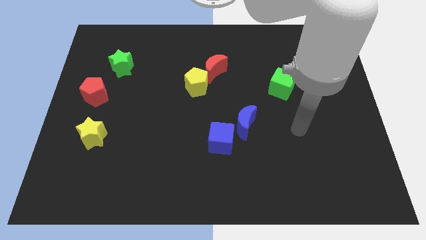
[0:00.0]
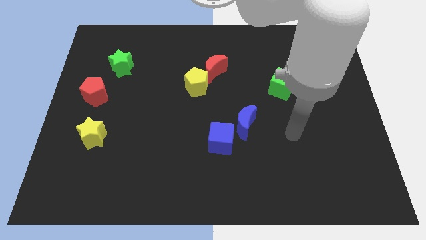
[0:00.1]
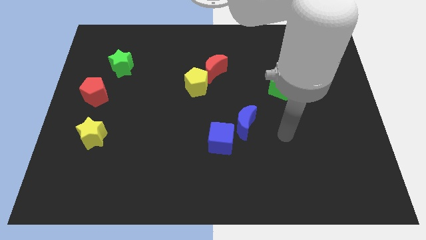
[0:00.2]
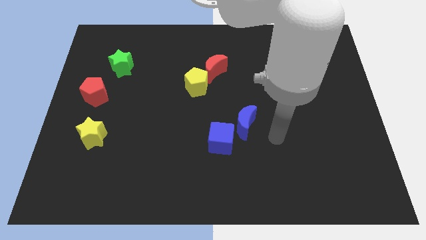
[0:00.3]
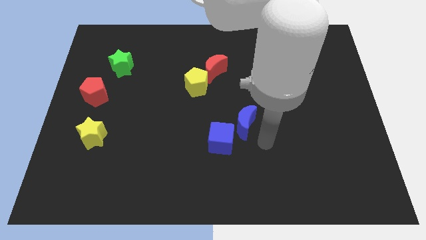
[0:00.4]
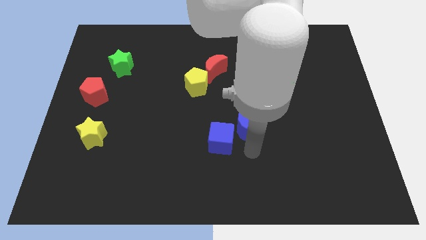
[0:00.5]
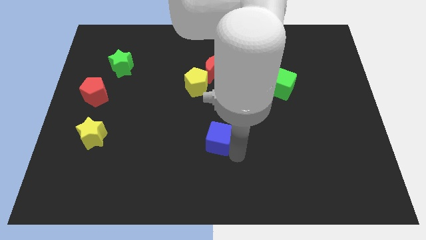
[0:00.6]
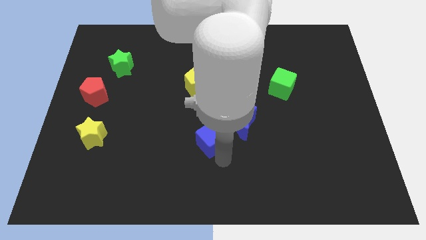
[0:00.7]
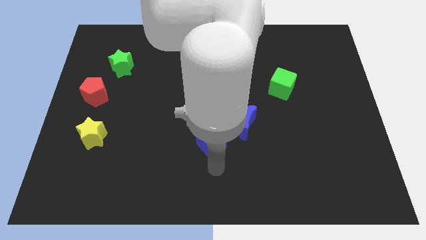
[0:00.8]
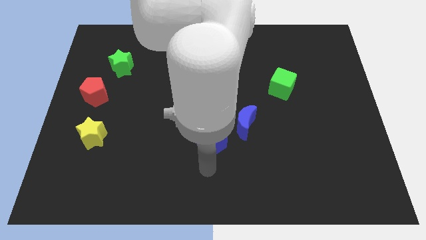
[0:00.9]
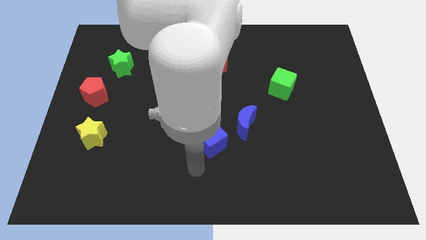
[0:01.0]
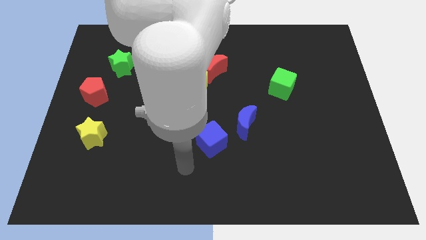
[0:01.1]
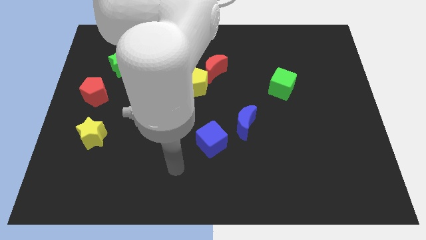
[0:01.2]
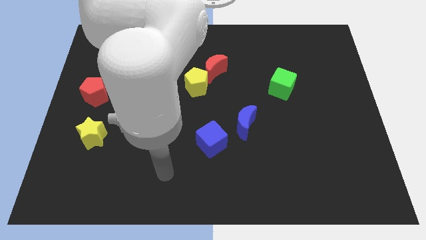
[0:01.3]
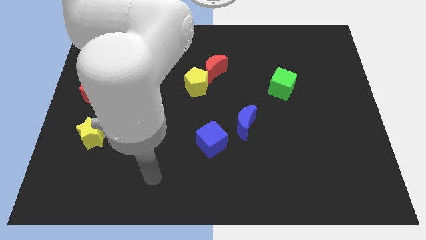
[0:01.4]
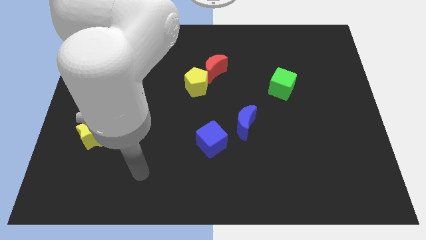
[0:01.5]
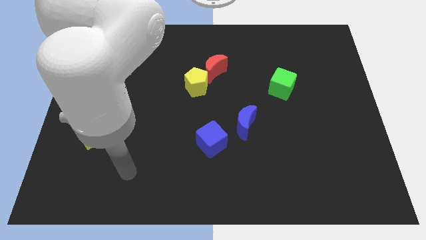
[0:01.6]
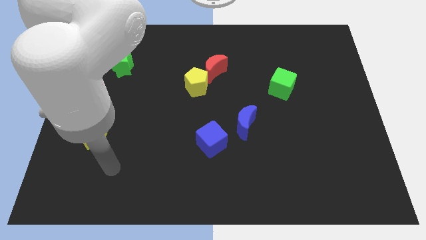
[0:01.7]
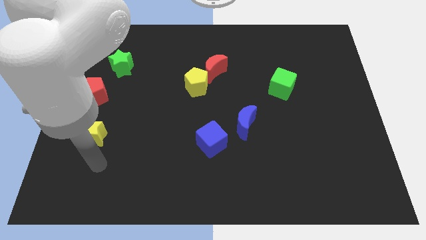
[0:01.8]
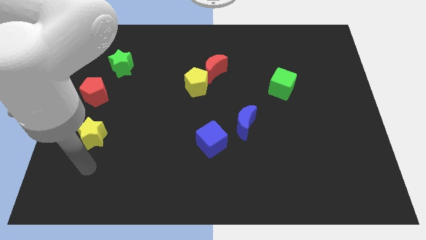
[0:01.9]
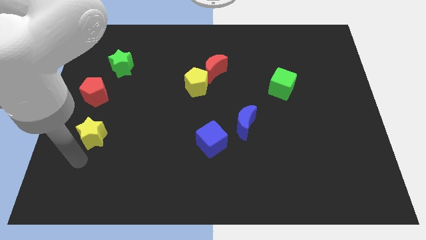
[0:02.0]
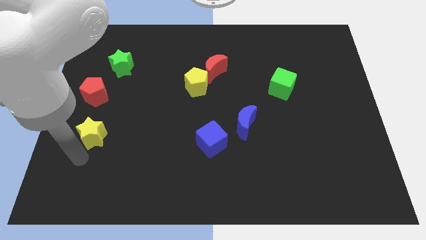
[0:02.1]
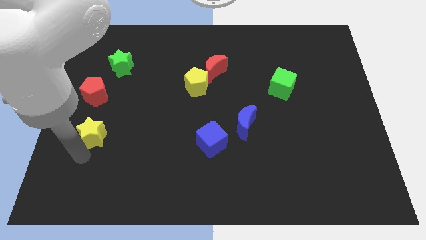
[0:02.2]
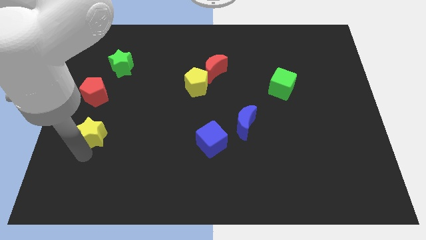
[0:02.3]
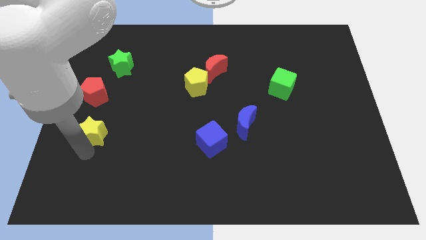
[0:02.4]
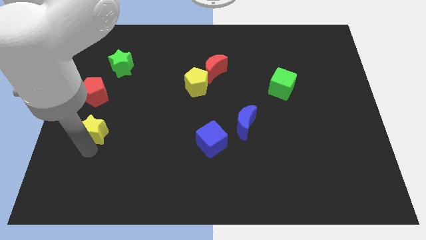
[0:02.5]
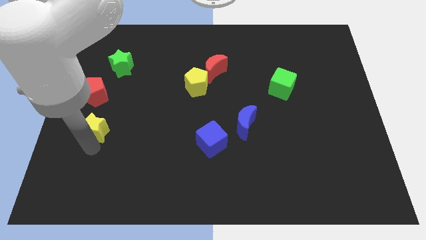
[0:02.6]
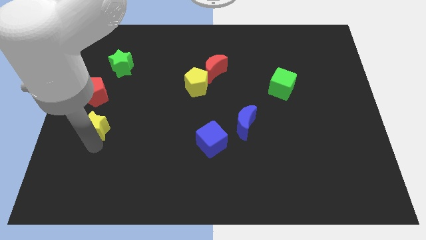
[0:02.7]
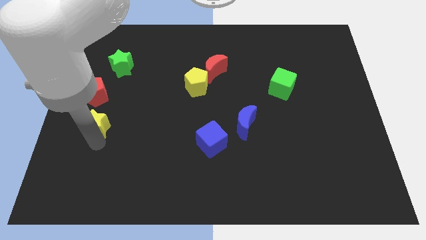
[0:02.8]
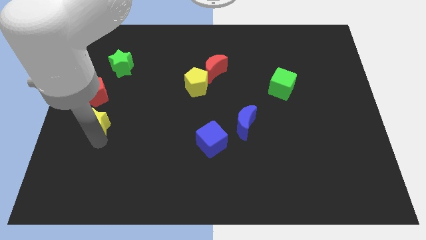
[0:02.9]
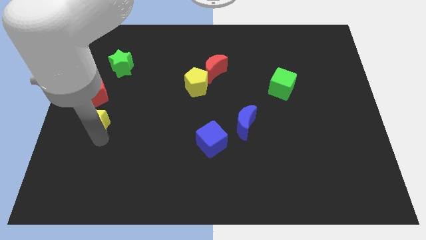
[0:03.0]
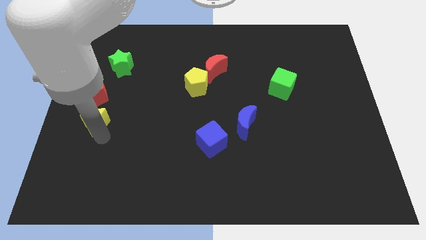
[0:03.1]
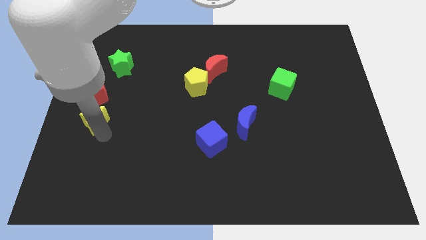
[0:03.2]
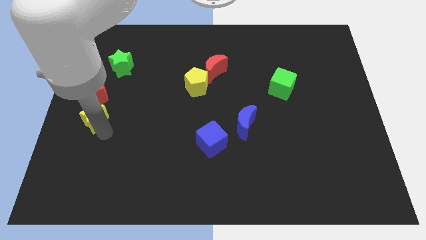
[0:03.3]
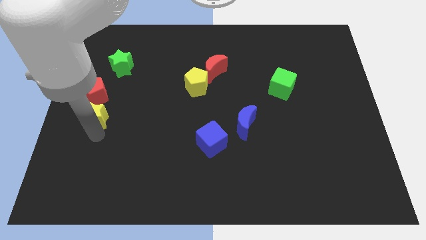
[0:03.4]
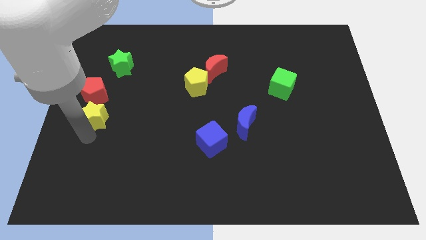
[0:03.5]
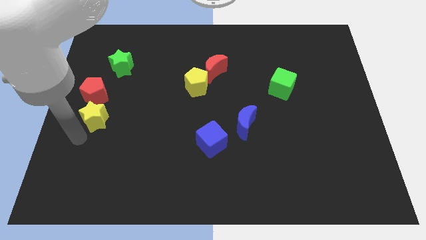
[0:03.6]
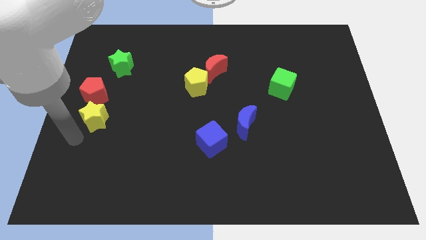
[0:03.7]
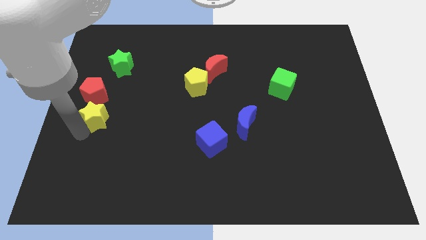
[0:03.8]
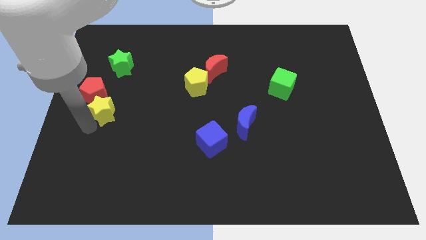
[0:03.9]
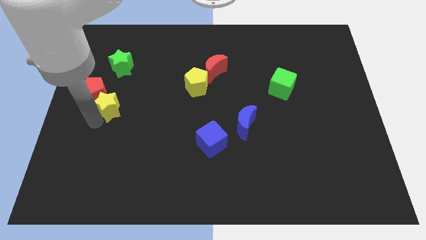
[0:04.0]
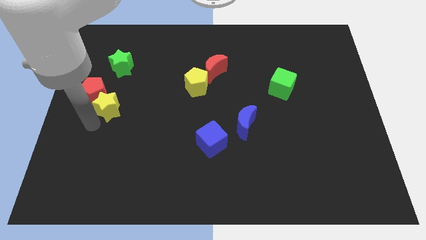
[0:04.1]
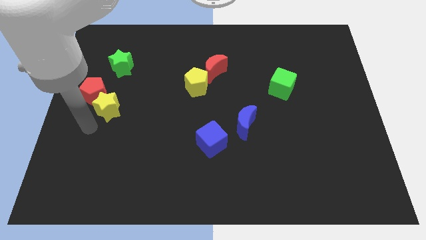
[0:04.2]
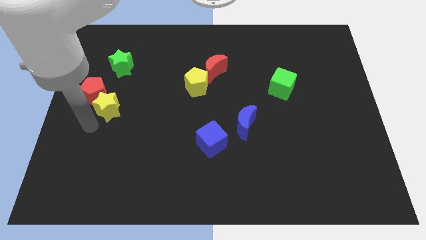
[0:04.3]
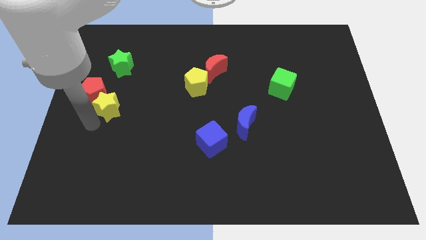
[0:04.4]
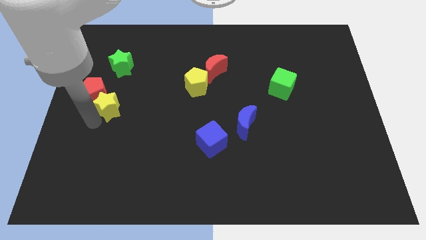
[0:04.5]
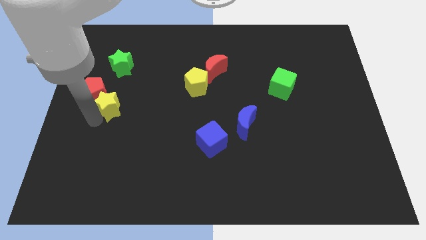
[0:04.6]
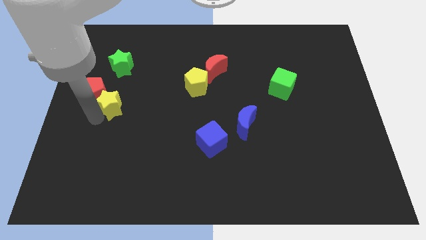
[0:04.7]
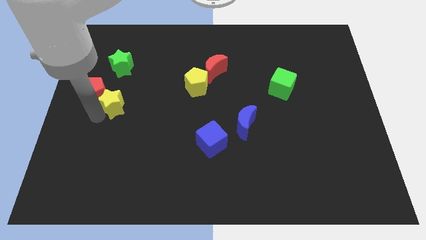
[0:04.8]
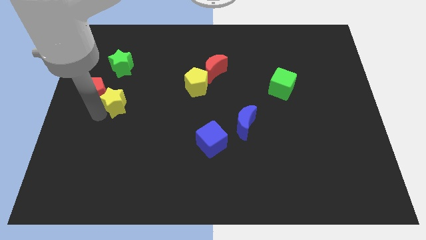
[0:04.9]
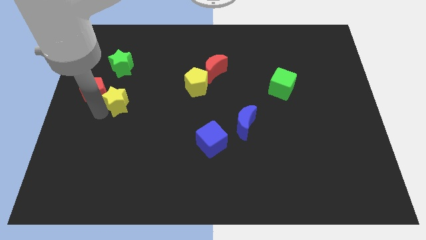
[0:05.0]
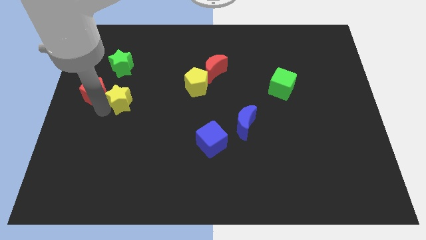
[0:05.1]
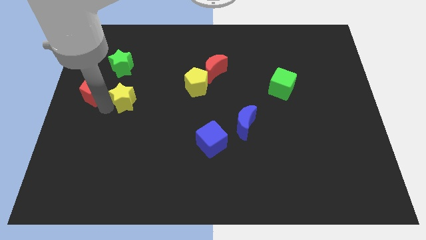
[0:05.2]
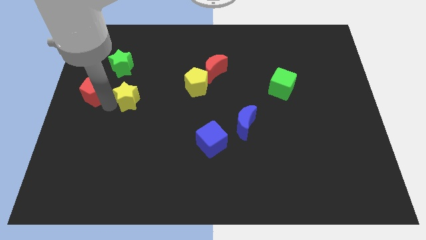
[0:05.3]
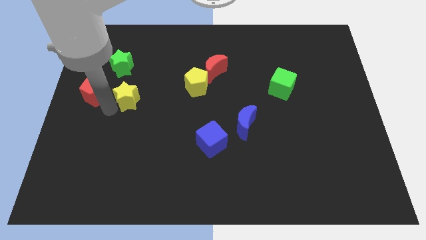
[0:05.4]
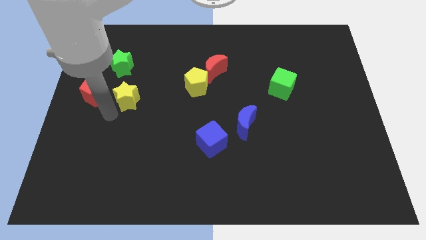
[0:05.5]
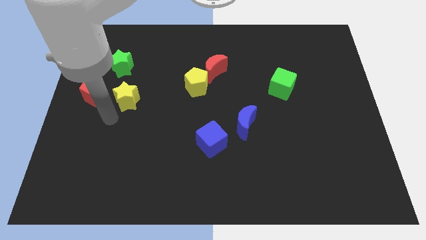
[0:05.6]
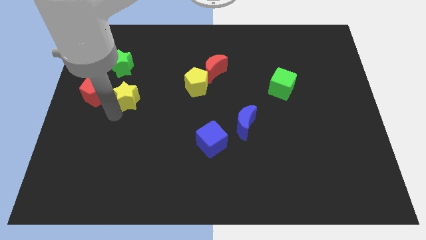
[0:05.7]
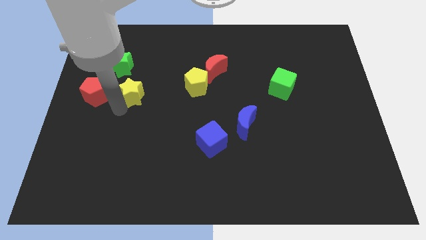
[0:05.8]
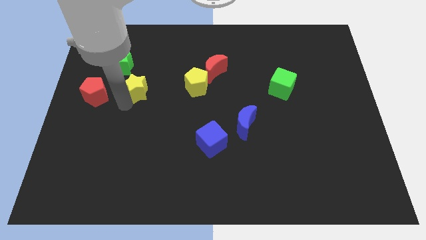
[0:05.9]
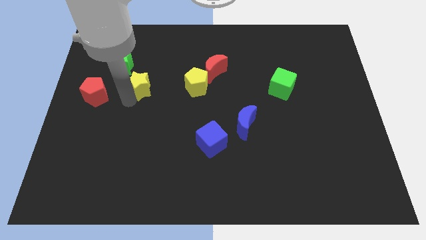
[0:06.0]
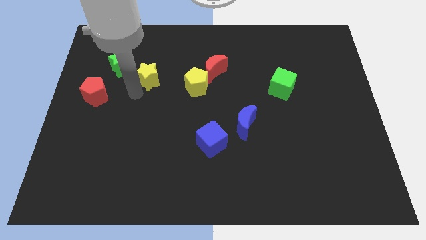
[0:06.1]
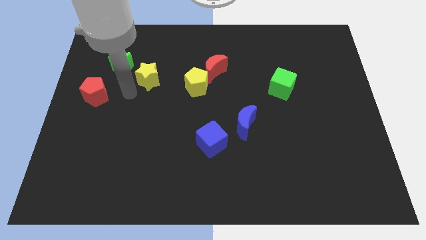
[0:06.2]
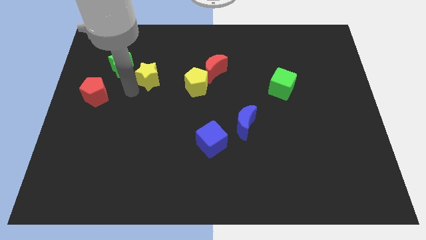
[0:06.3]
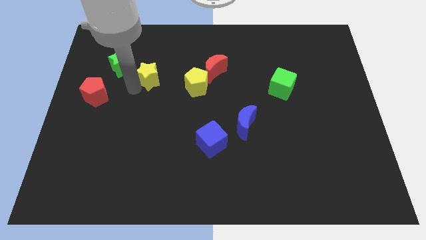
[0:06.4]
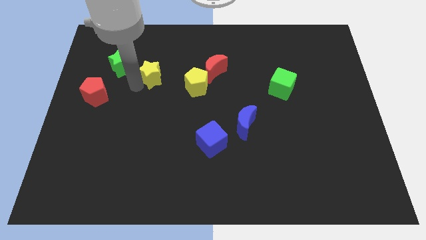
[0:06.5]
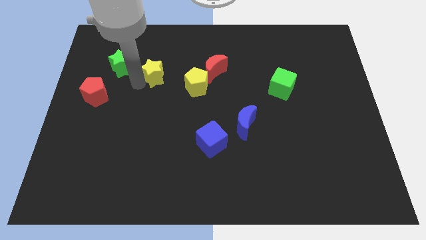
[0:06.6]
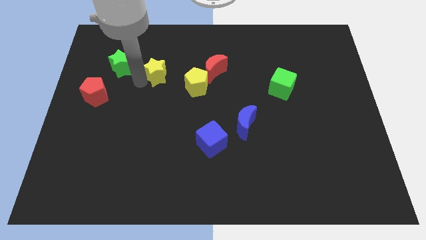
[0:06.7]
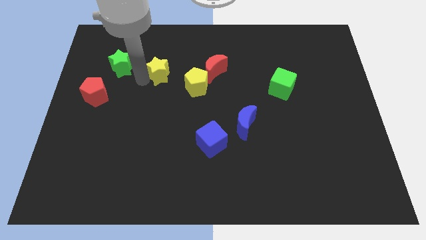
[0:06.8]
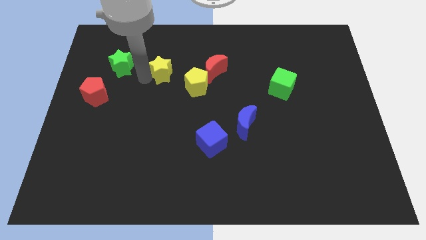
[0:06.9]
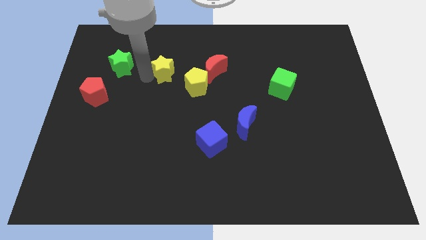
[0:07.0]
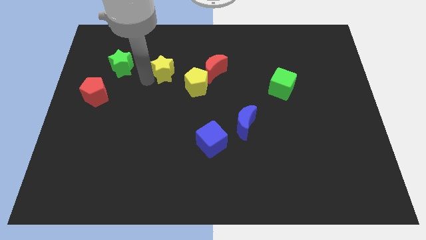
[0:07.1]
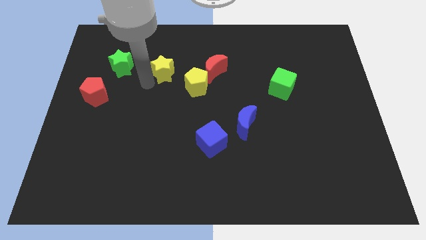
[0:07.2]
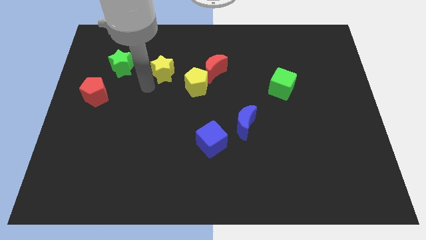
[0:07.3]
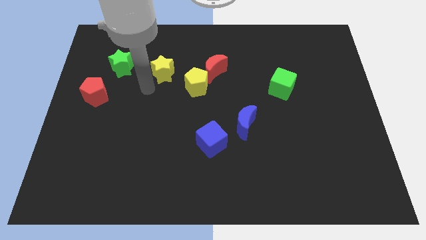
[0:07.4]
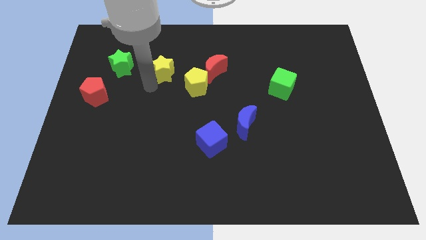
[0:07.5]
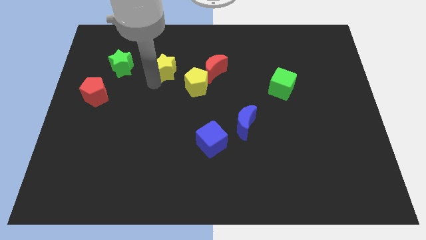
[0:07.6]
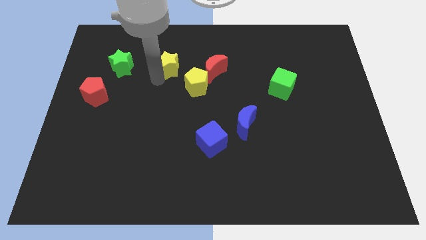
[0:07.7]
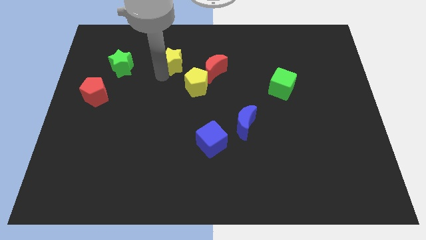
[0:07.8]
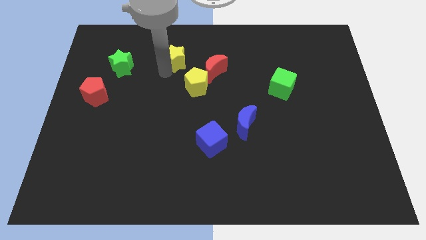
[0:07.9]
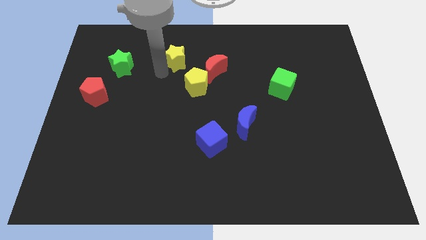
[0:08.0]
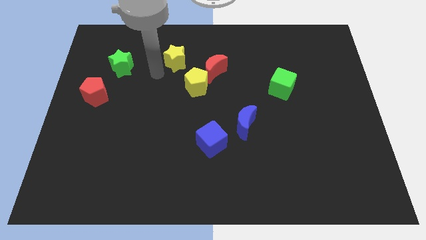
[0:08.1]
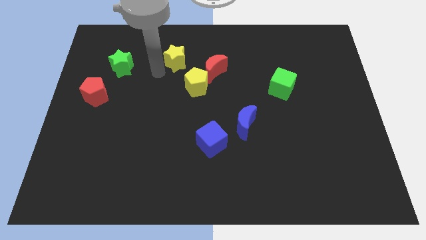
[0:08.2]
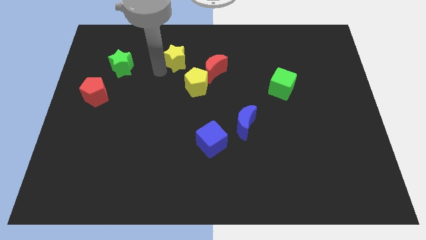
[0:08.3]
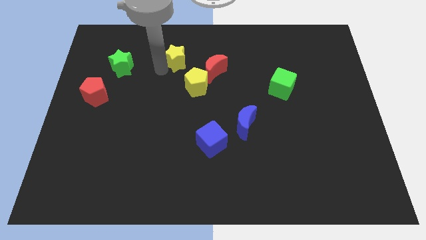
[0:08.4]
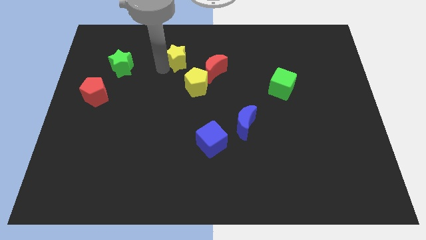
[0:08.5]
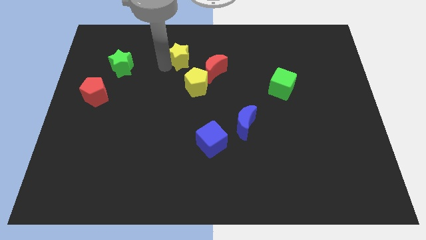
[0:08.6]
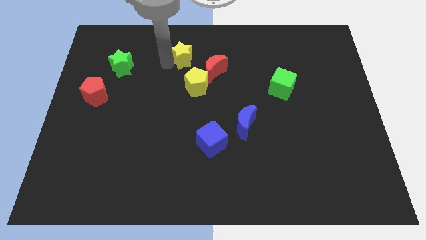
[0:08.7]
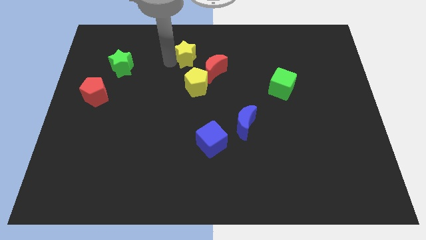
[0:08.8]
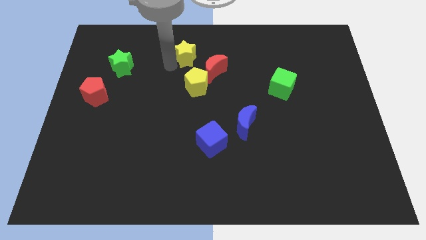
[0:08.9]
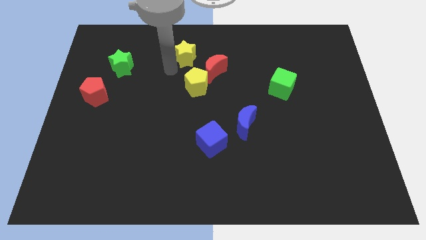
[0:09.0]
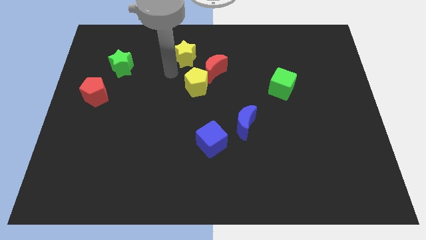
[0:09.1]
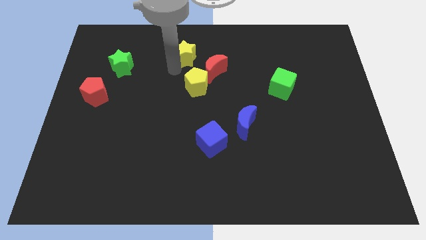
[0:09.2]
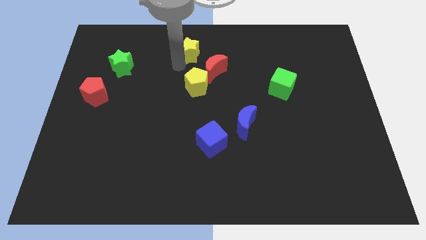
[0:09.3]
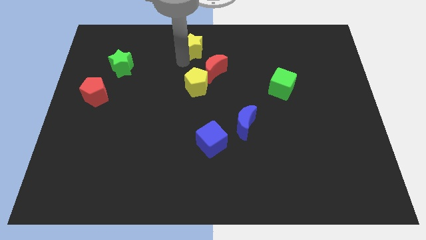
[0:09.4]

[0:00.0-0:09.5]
push the yellow star to the top side
